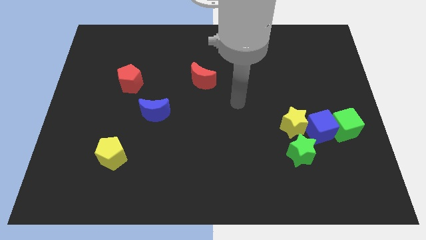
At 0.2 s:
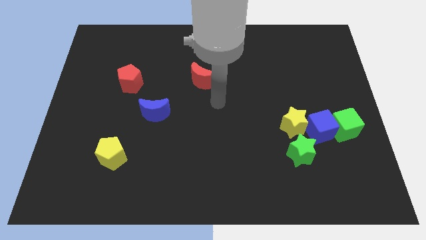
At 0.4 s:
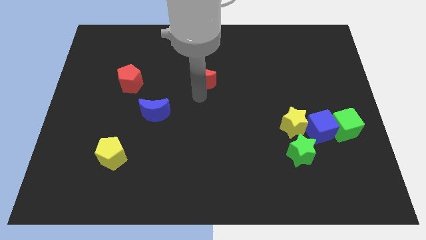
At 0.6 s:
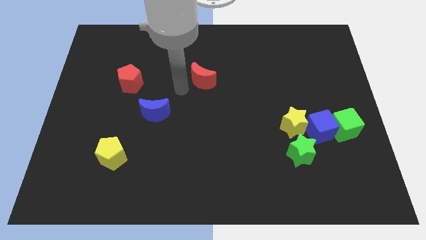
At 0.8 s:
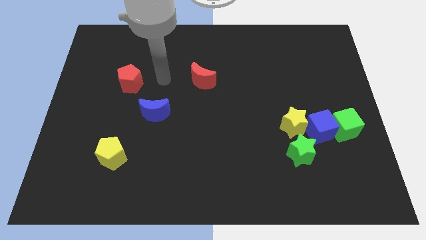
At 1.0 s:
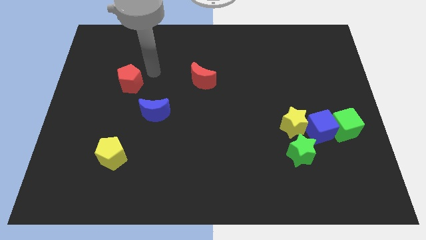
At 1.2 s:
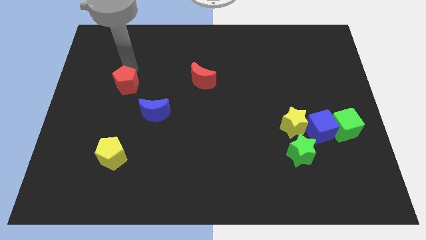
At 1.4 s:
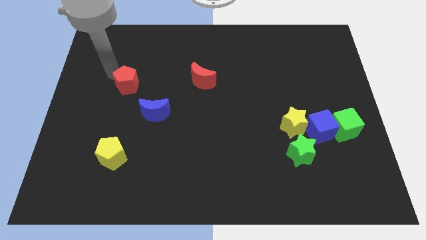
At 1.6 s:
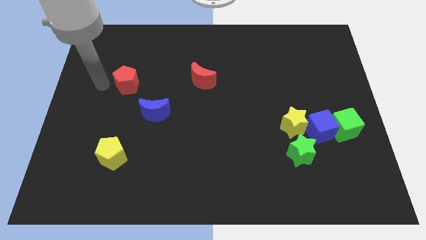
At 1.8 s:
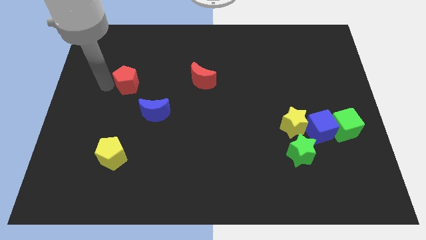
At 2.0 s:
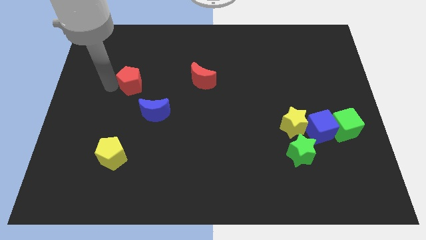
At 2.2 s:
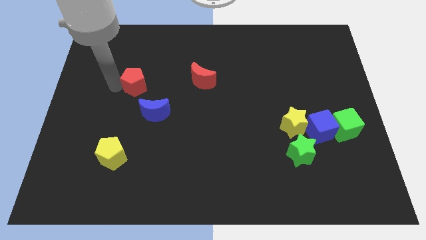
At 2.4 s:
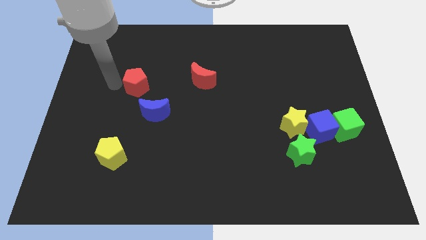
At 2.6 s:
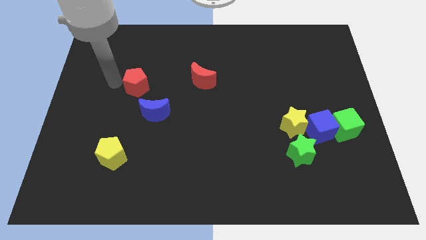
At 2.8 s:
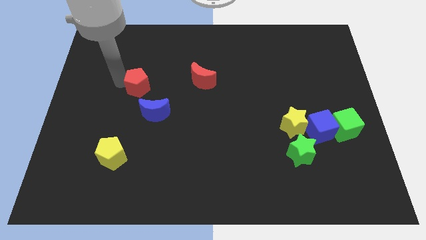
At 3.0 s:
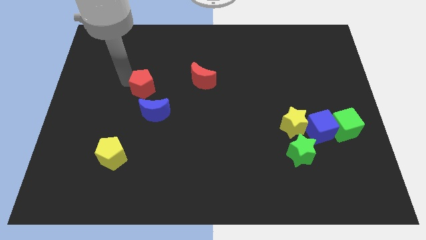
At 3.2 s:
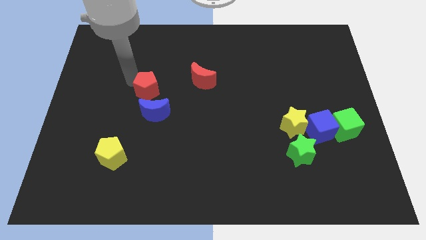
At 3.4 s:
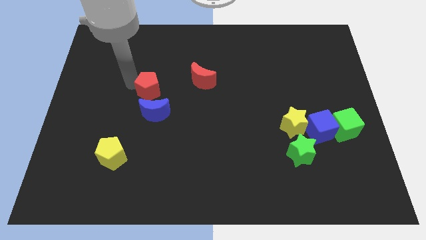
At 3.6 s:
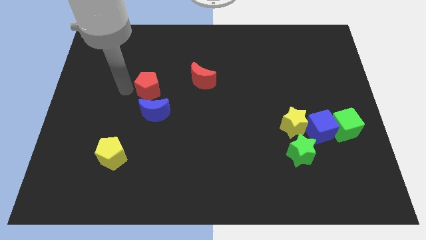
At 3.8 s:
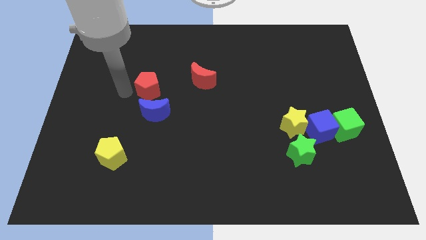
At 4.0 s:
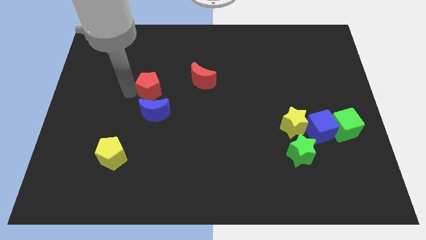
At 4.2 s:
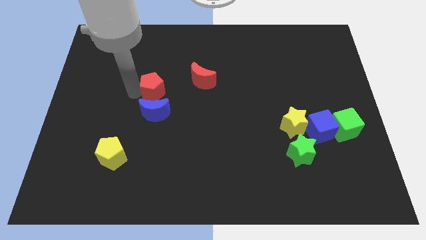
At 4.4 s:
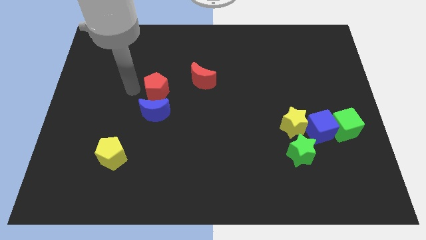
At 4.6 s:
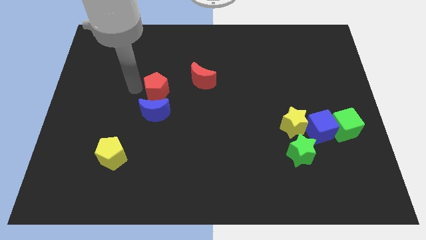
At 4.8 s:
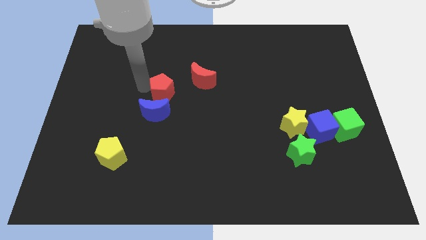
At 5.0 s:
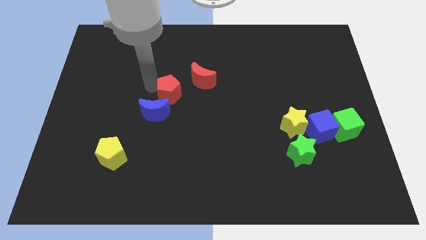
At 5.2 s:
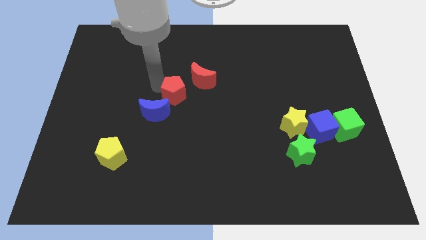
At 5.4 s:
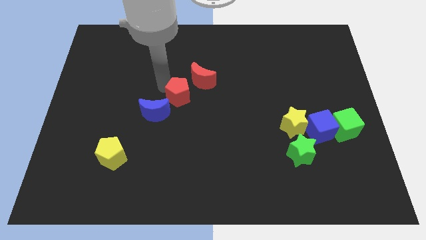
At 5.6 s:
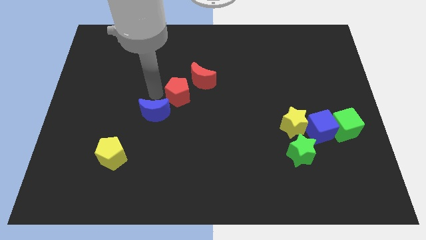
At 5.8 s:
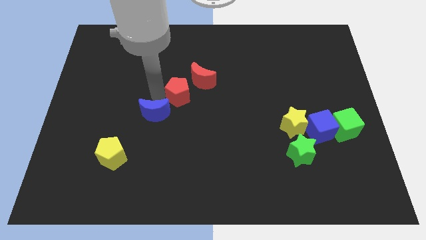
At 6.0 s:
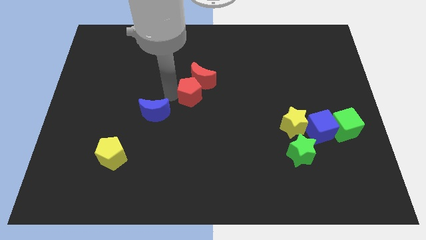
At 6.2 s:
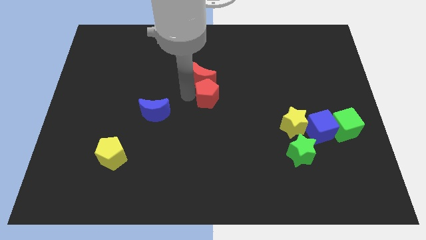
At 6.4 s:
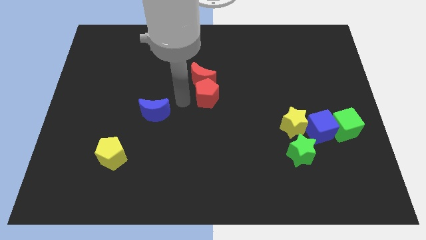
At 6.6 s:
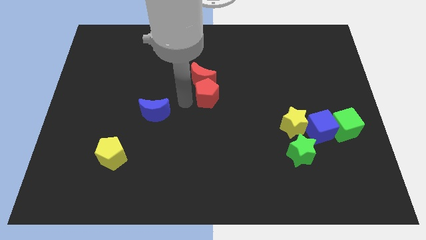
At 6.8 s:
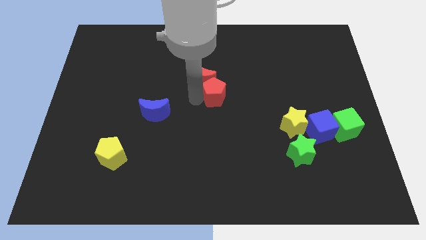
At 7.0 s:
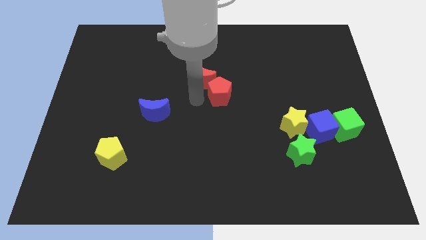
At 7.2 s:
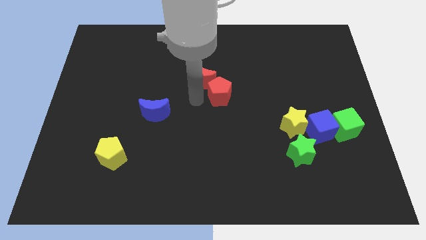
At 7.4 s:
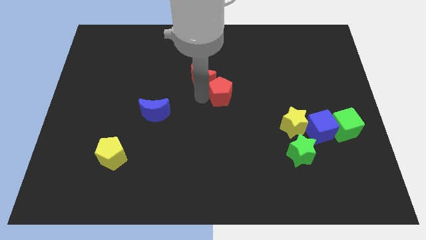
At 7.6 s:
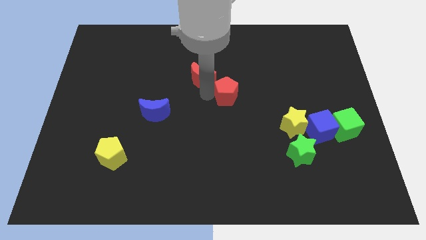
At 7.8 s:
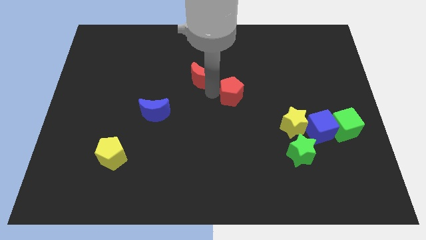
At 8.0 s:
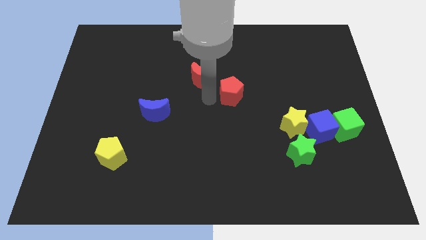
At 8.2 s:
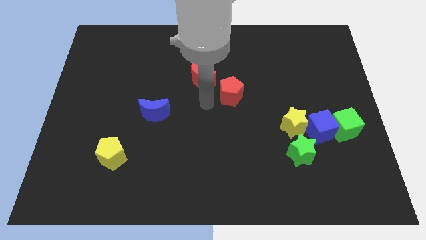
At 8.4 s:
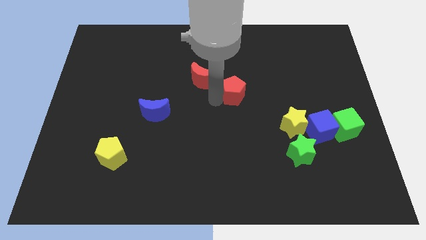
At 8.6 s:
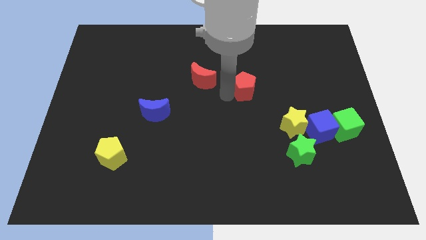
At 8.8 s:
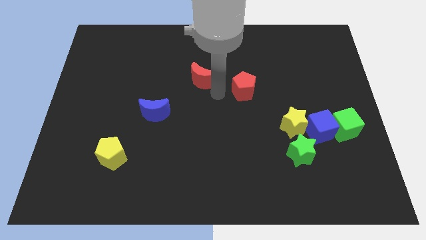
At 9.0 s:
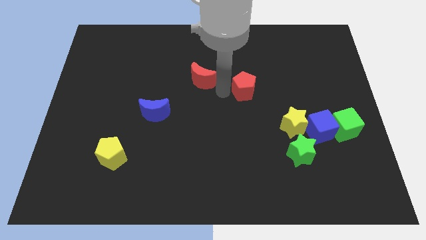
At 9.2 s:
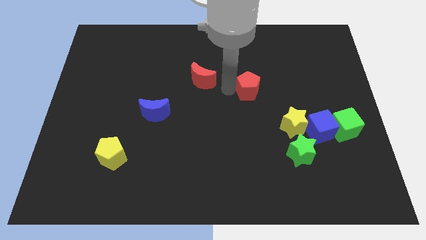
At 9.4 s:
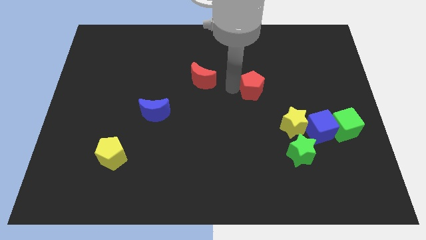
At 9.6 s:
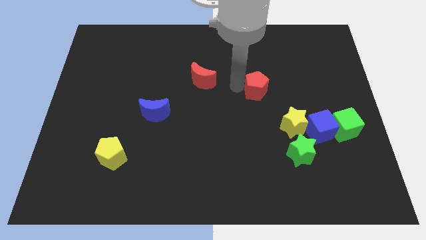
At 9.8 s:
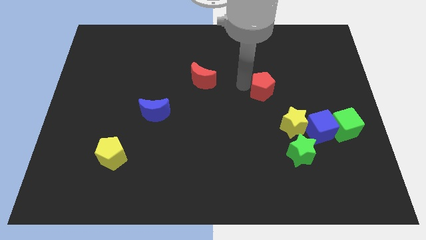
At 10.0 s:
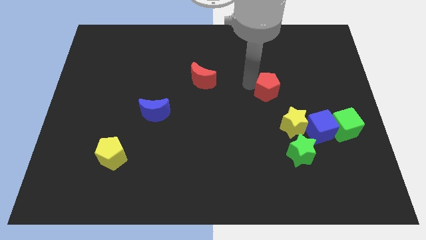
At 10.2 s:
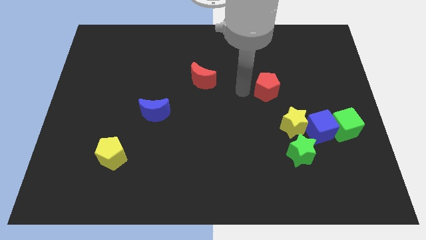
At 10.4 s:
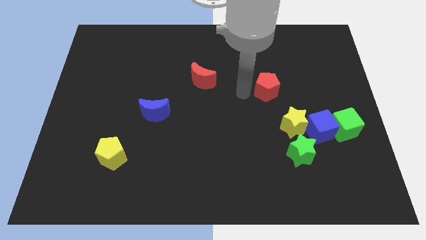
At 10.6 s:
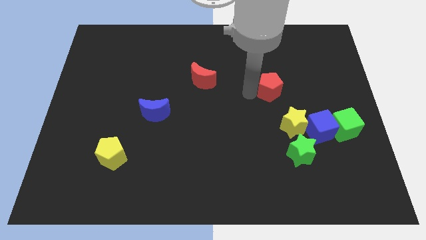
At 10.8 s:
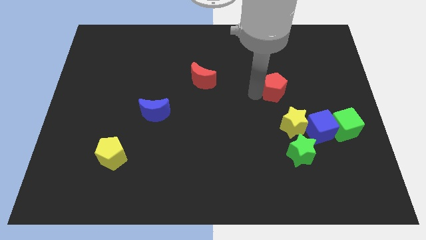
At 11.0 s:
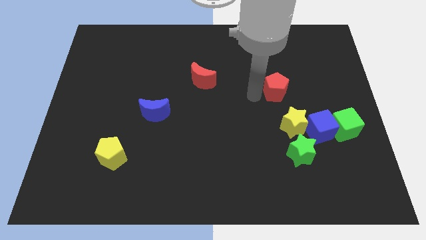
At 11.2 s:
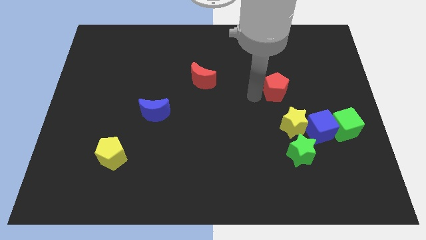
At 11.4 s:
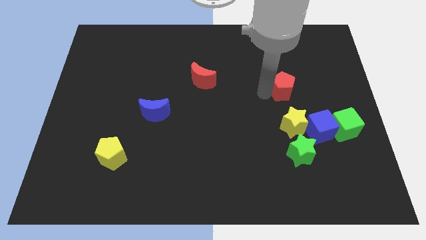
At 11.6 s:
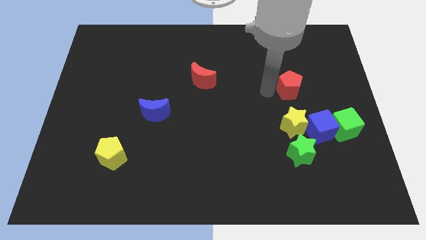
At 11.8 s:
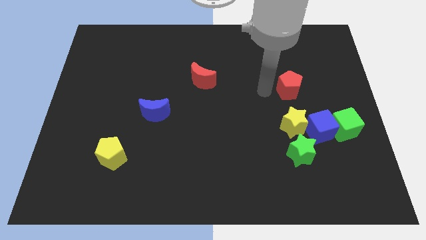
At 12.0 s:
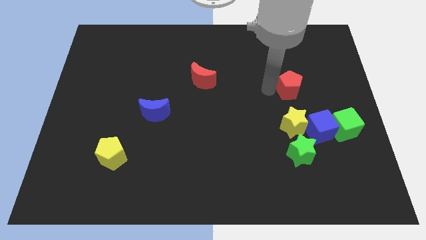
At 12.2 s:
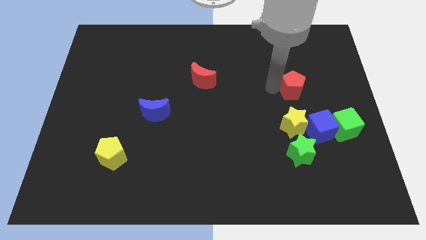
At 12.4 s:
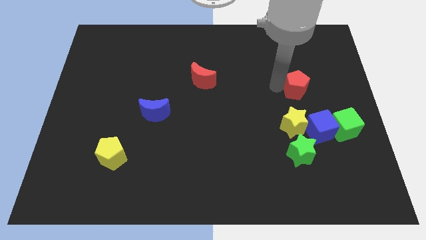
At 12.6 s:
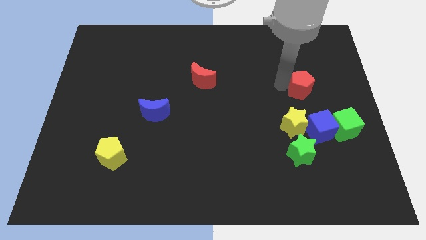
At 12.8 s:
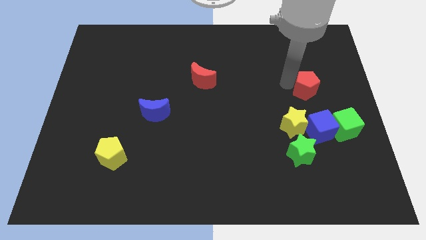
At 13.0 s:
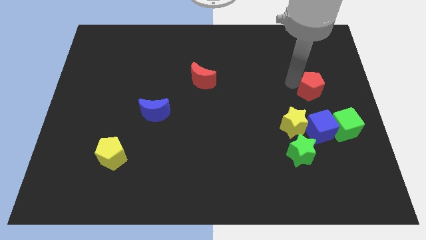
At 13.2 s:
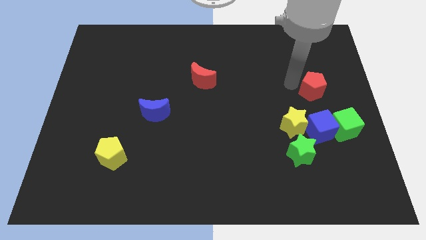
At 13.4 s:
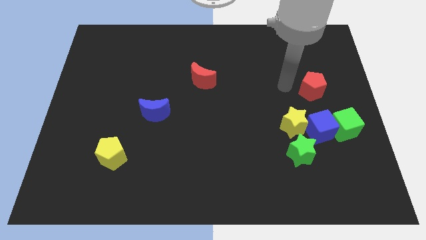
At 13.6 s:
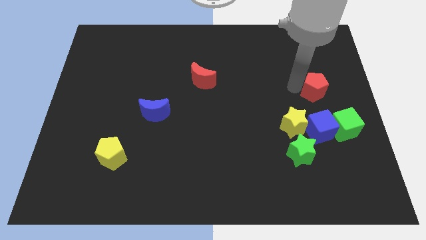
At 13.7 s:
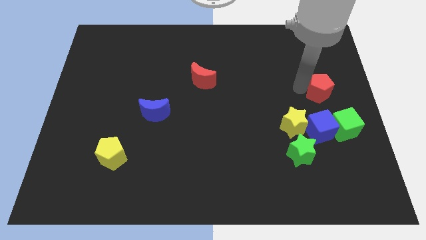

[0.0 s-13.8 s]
slide the red pentagon to the right side

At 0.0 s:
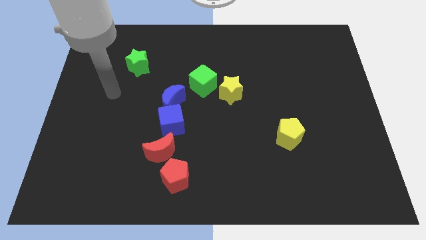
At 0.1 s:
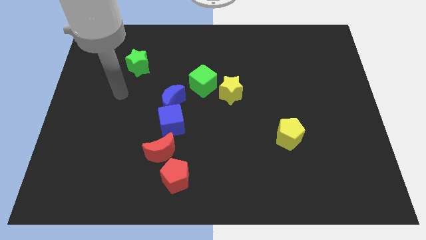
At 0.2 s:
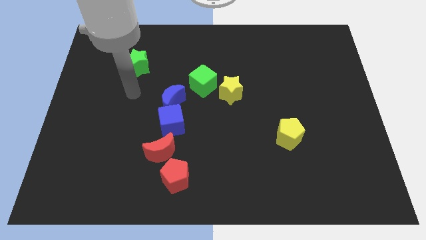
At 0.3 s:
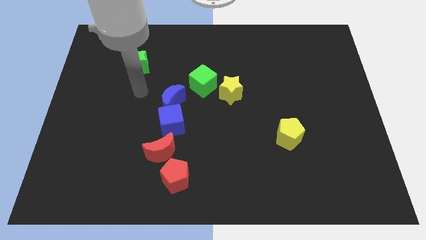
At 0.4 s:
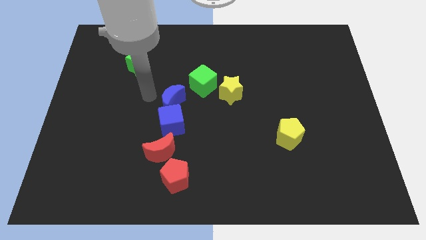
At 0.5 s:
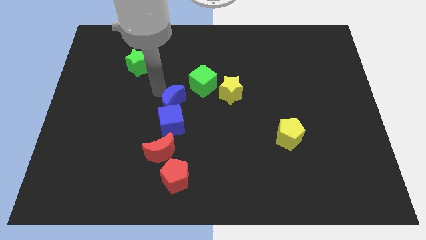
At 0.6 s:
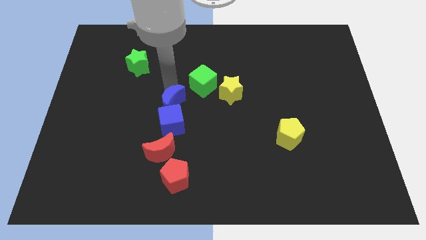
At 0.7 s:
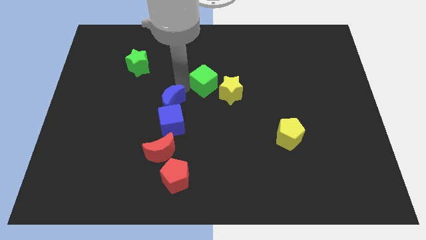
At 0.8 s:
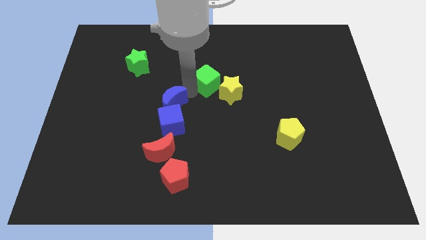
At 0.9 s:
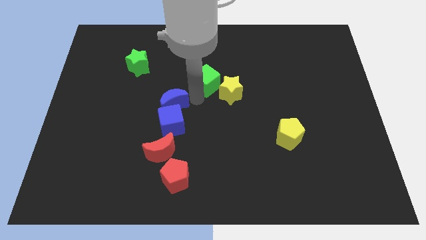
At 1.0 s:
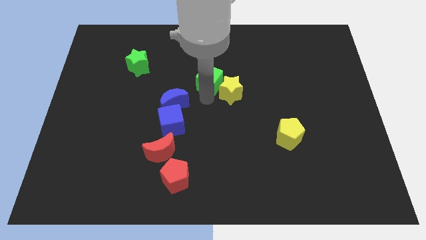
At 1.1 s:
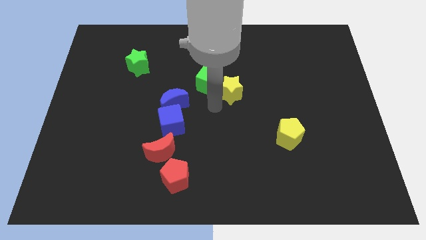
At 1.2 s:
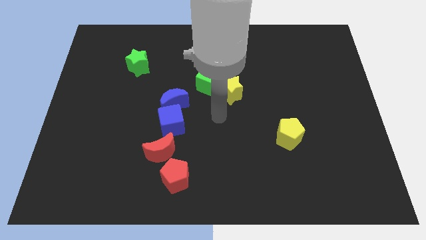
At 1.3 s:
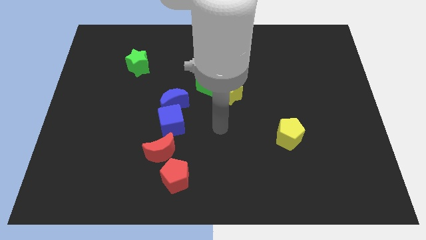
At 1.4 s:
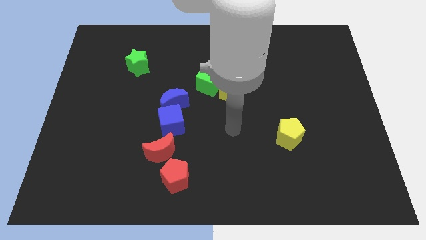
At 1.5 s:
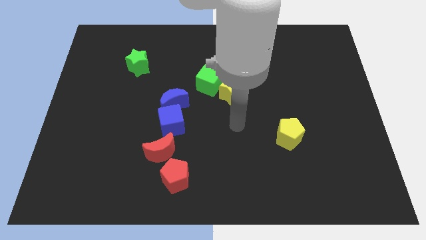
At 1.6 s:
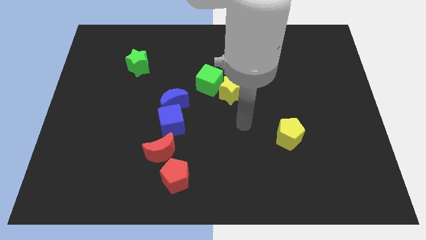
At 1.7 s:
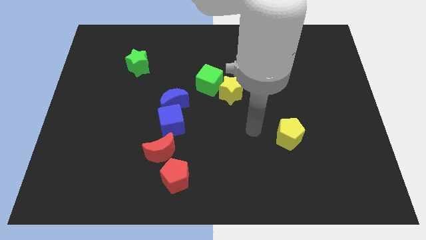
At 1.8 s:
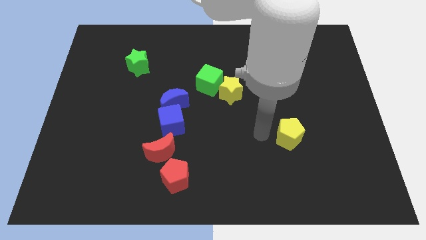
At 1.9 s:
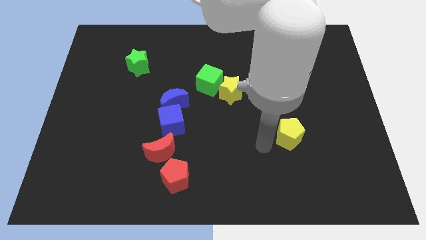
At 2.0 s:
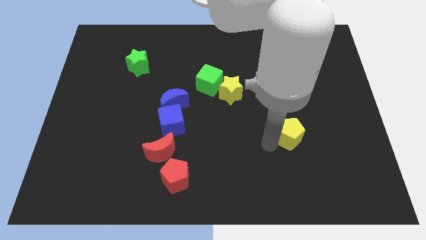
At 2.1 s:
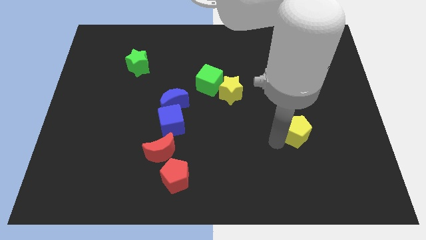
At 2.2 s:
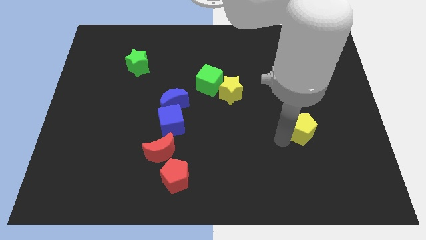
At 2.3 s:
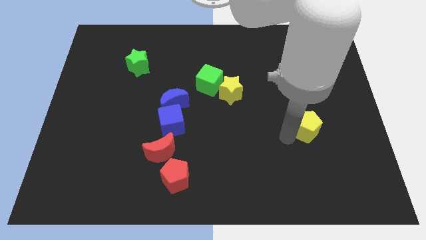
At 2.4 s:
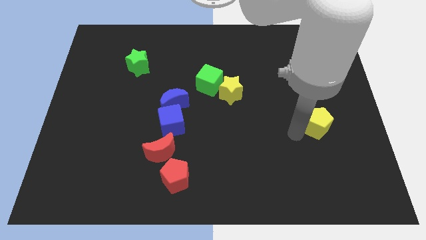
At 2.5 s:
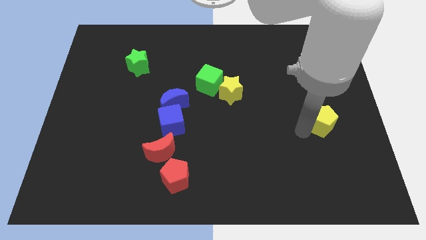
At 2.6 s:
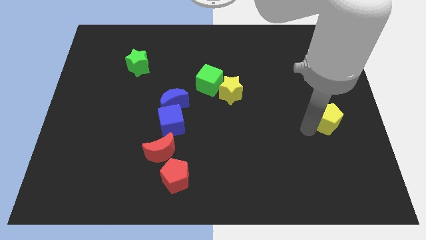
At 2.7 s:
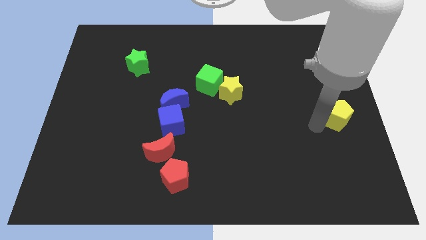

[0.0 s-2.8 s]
slide the yellow pentagon to the right side
